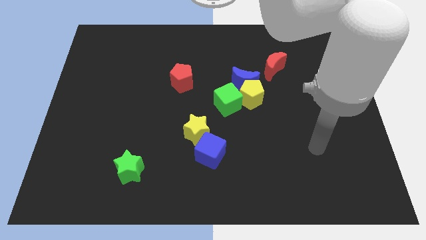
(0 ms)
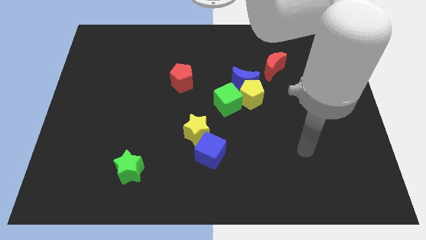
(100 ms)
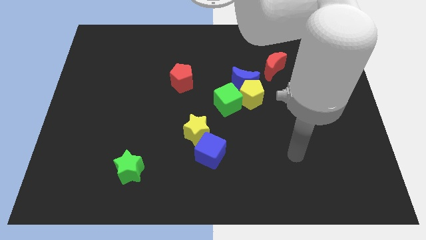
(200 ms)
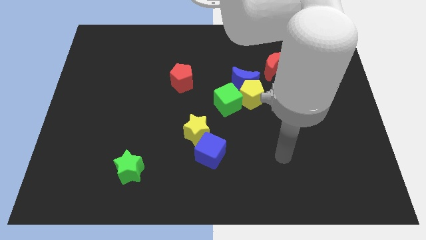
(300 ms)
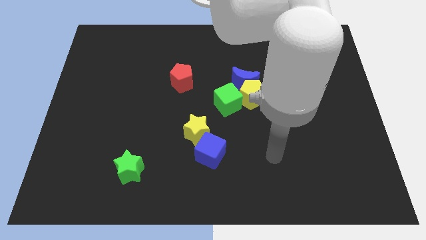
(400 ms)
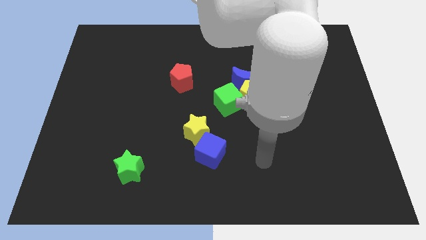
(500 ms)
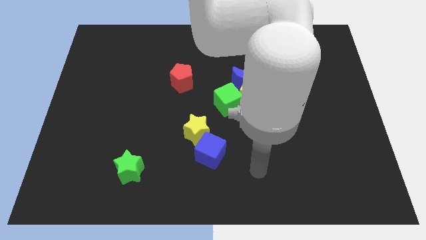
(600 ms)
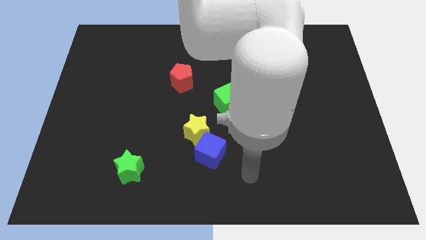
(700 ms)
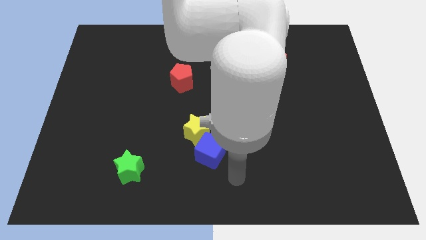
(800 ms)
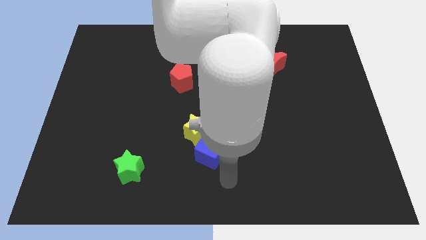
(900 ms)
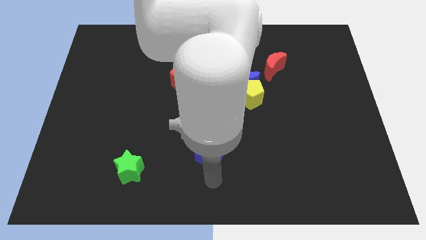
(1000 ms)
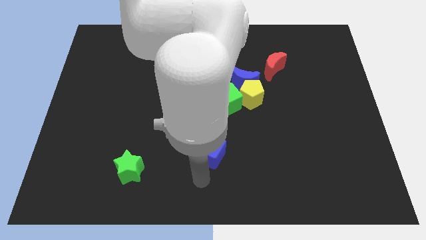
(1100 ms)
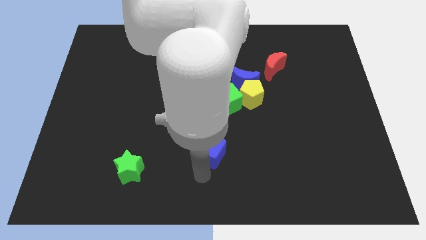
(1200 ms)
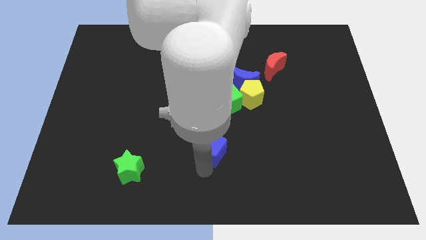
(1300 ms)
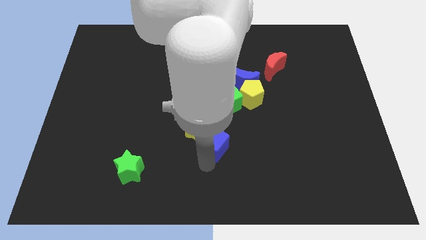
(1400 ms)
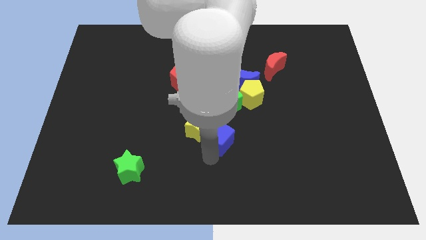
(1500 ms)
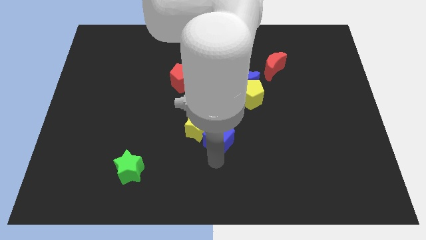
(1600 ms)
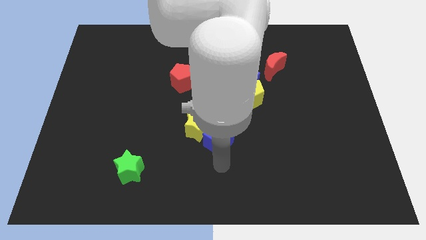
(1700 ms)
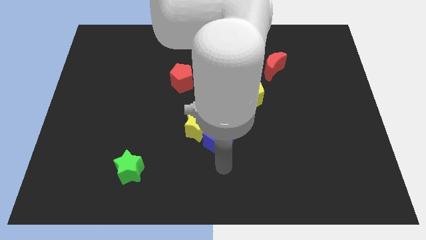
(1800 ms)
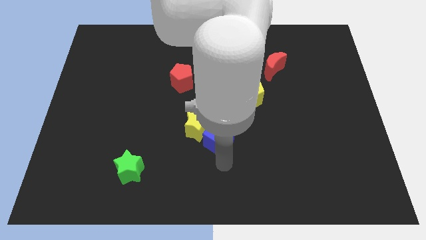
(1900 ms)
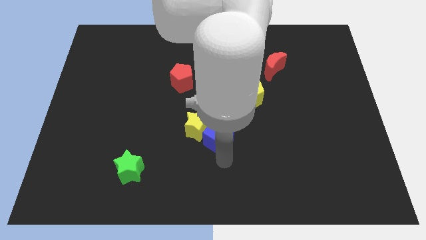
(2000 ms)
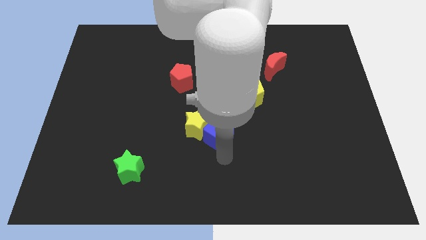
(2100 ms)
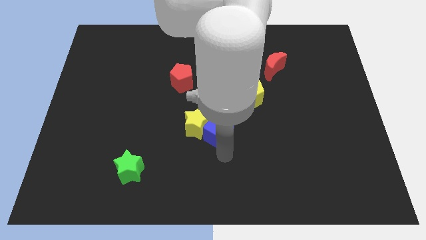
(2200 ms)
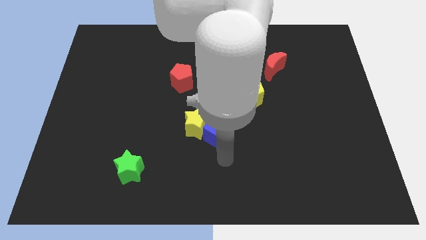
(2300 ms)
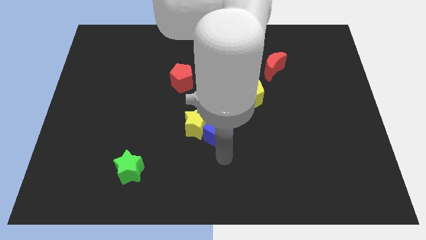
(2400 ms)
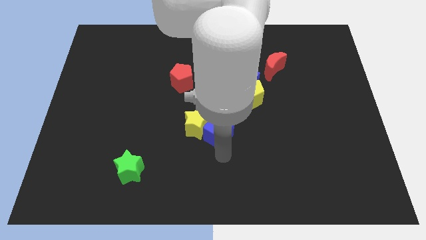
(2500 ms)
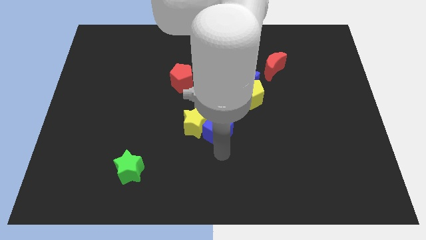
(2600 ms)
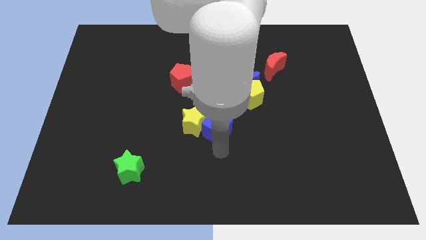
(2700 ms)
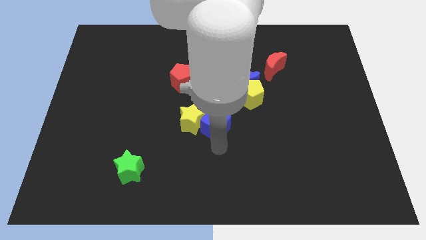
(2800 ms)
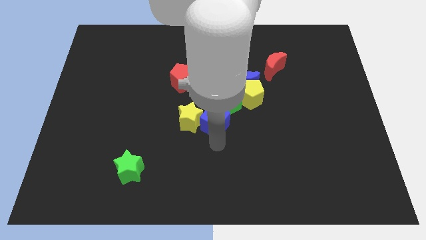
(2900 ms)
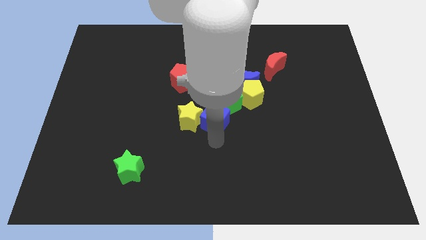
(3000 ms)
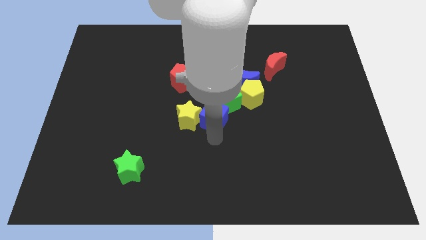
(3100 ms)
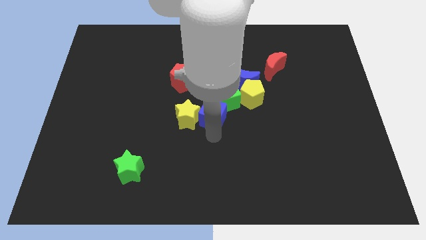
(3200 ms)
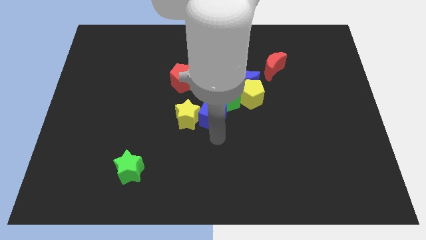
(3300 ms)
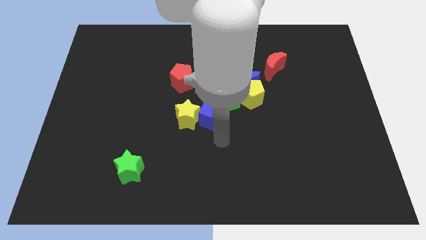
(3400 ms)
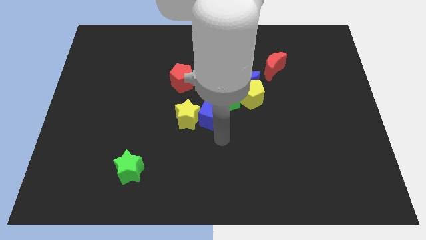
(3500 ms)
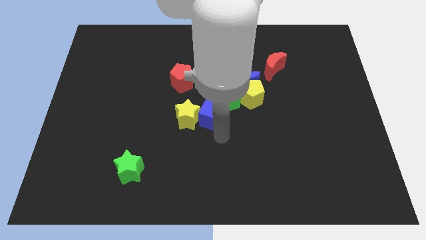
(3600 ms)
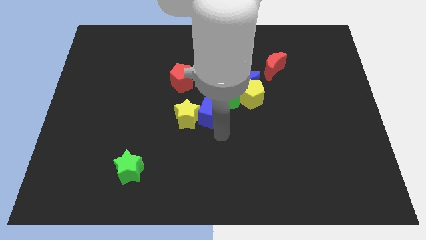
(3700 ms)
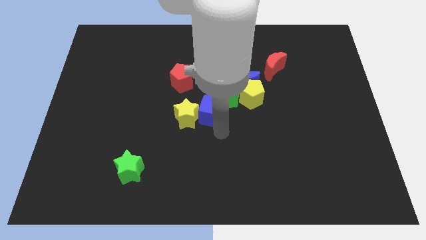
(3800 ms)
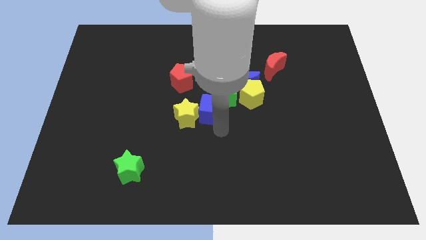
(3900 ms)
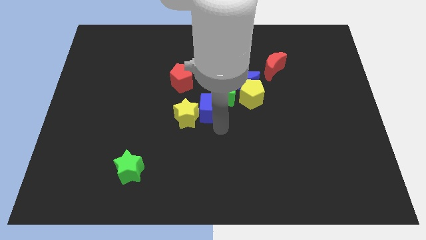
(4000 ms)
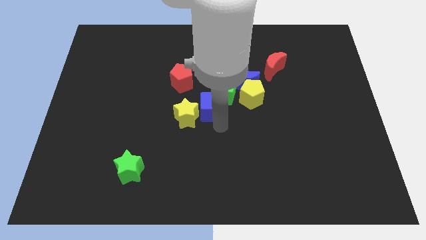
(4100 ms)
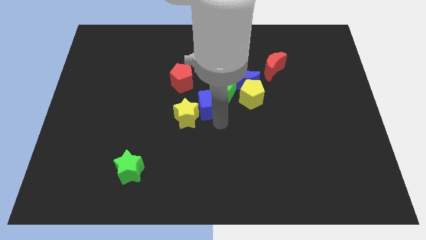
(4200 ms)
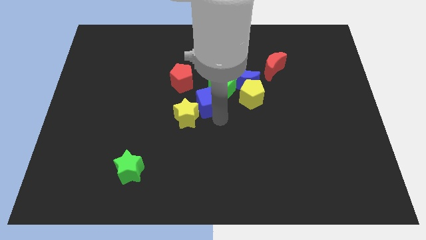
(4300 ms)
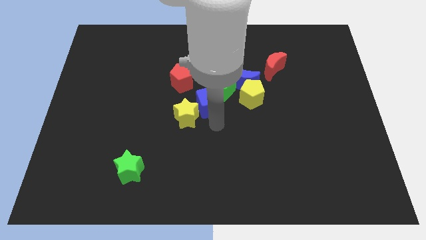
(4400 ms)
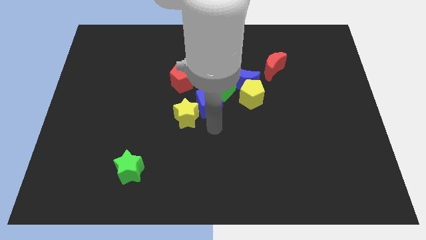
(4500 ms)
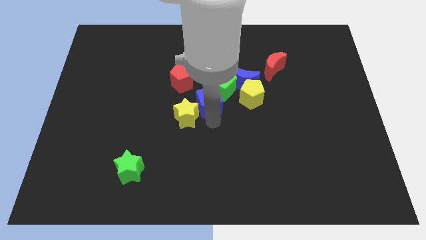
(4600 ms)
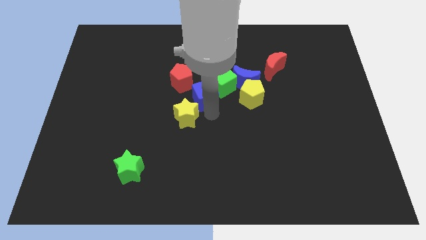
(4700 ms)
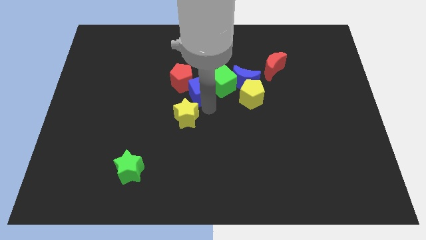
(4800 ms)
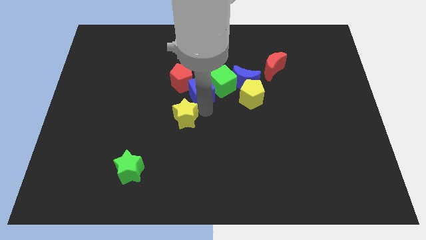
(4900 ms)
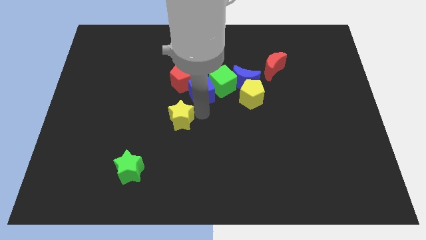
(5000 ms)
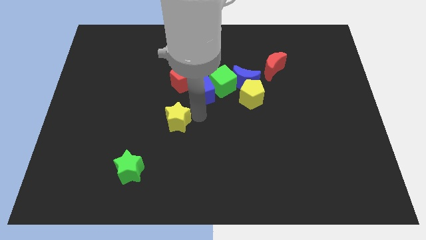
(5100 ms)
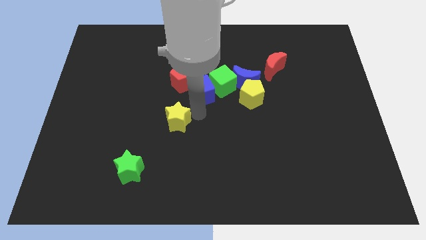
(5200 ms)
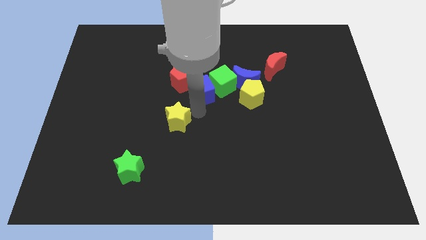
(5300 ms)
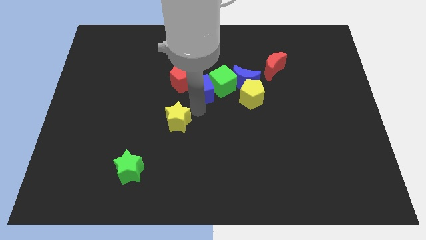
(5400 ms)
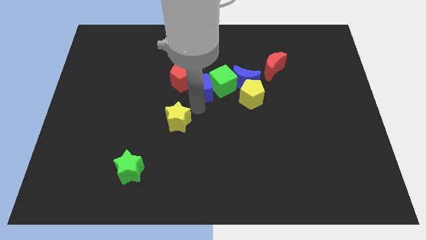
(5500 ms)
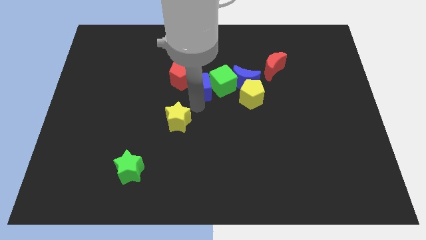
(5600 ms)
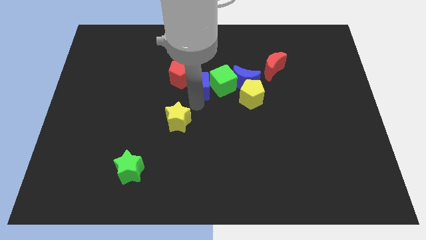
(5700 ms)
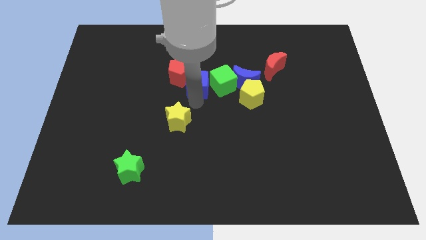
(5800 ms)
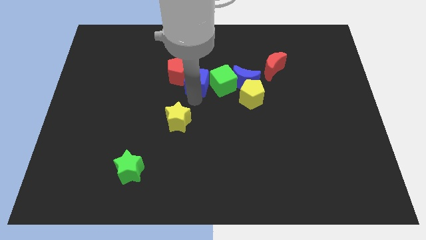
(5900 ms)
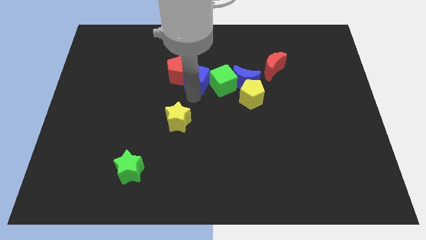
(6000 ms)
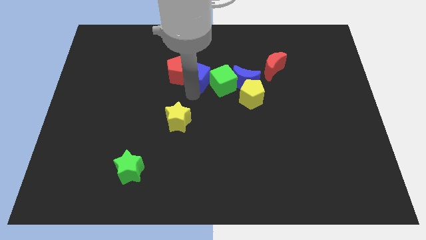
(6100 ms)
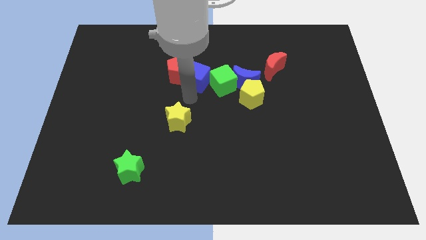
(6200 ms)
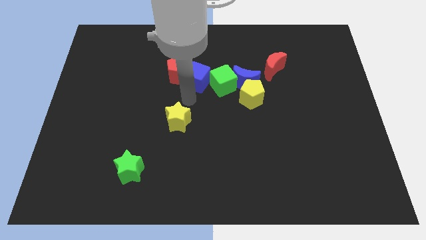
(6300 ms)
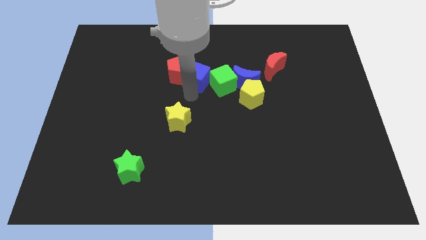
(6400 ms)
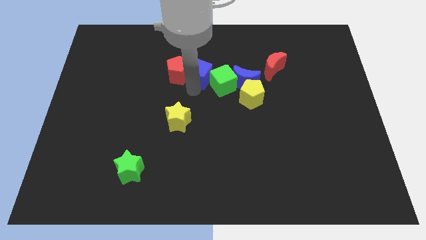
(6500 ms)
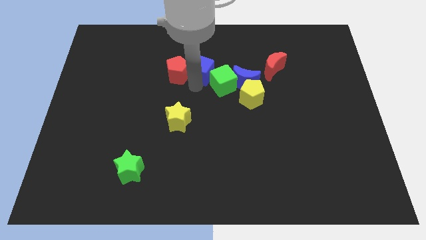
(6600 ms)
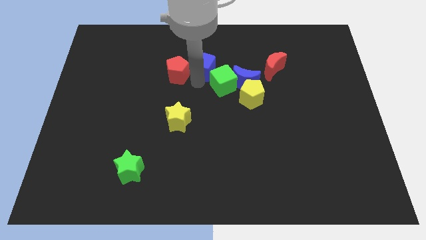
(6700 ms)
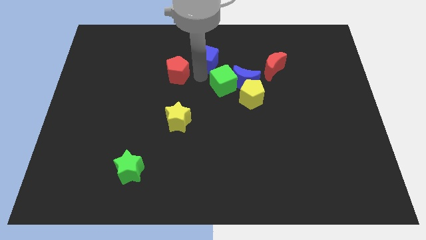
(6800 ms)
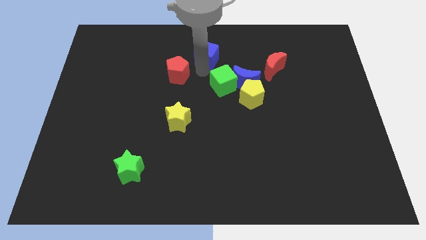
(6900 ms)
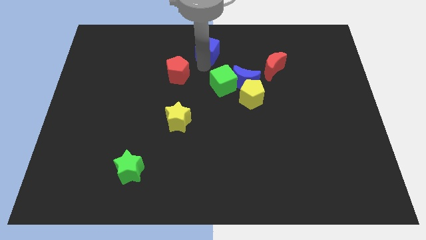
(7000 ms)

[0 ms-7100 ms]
push the blue cube to the top side
